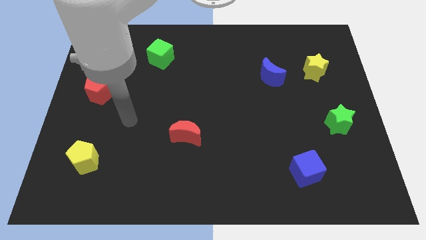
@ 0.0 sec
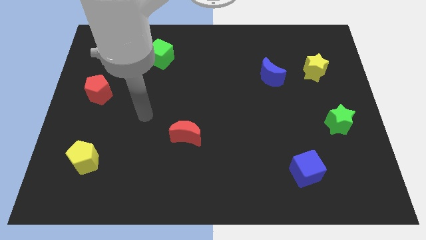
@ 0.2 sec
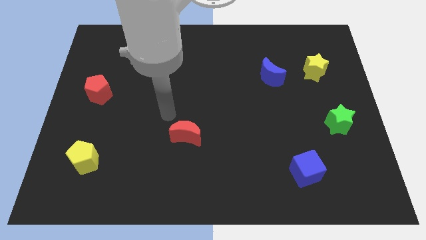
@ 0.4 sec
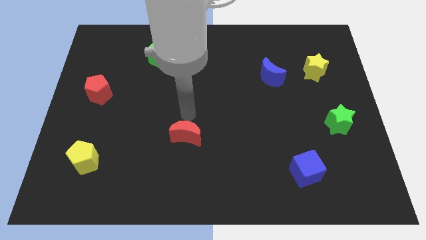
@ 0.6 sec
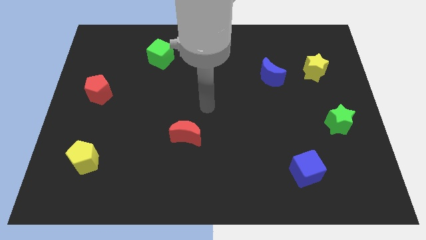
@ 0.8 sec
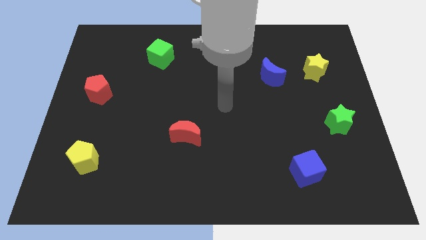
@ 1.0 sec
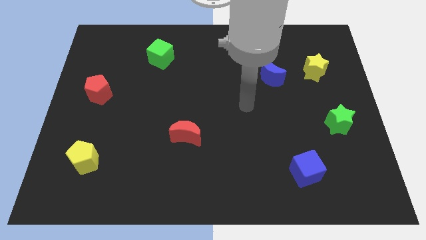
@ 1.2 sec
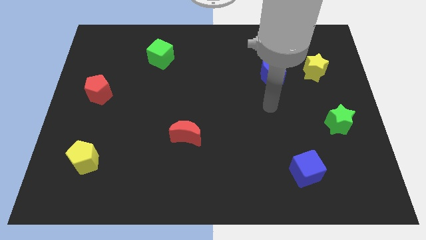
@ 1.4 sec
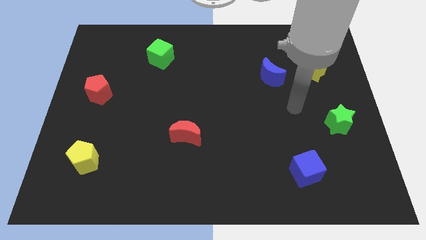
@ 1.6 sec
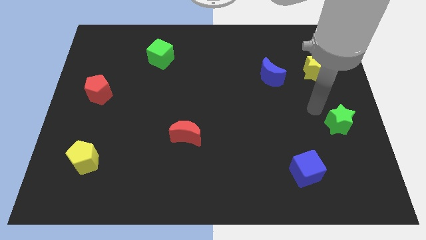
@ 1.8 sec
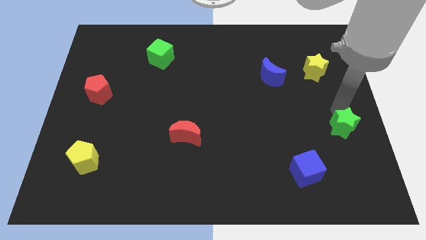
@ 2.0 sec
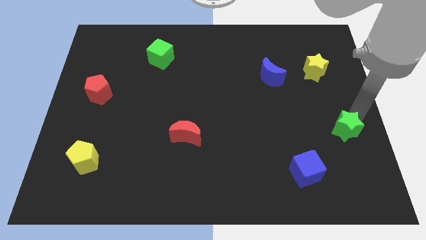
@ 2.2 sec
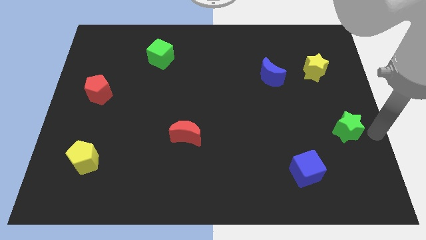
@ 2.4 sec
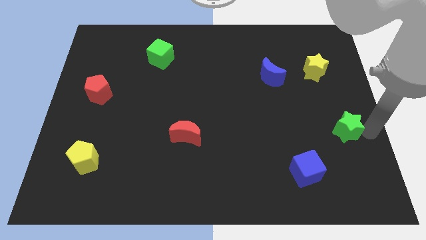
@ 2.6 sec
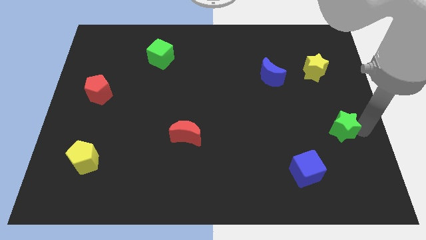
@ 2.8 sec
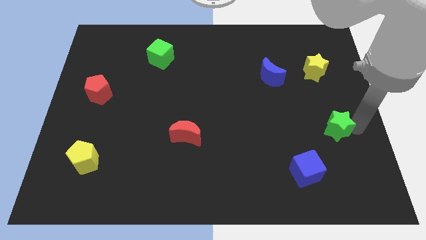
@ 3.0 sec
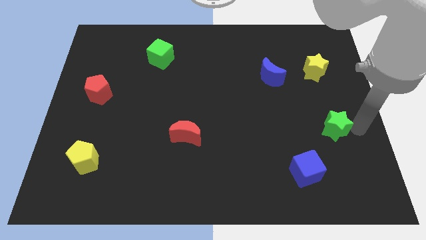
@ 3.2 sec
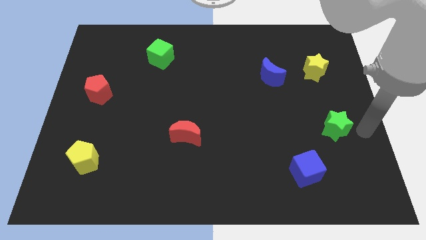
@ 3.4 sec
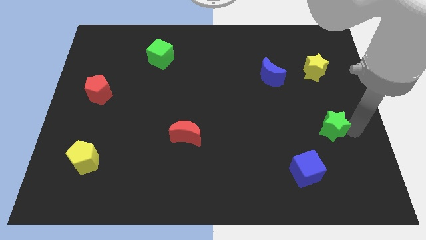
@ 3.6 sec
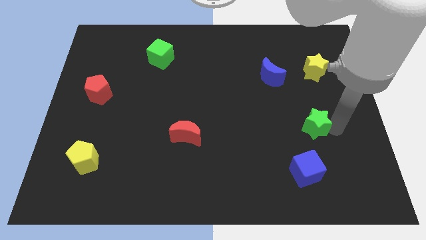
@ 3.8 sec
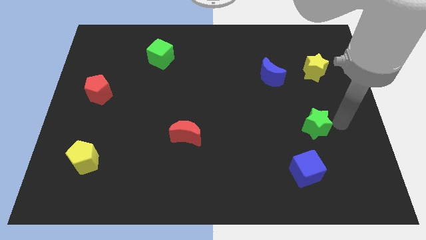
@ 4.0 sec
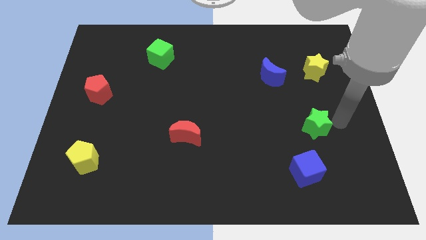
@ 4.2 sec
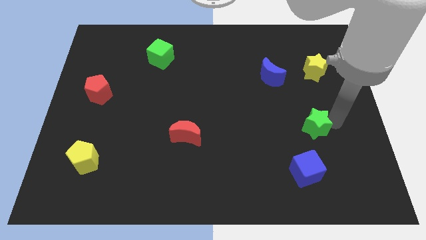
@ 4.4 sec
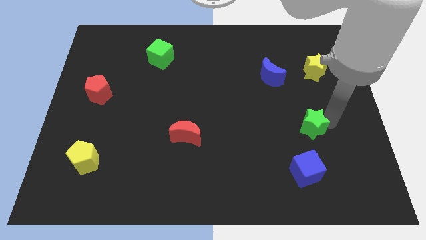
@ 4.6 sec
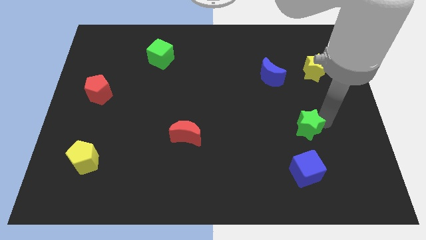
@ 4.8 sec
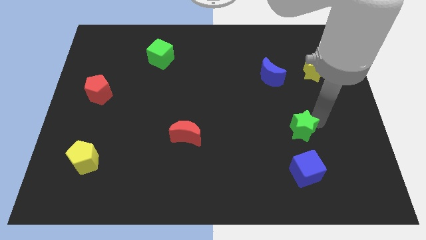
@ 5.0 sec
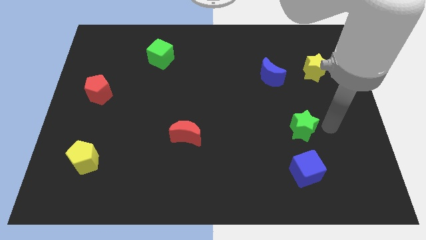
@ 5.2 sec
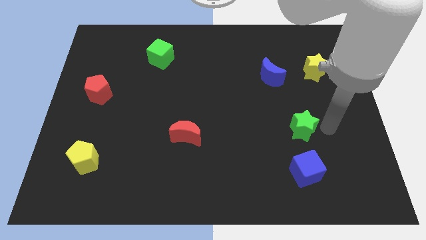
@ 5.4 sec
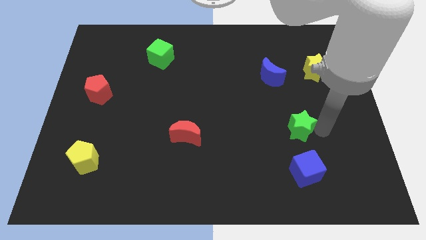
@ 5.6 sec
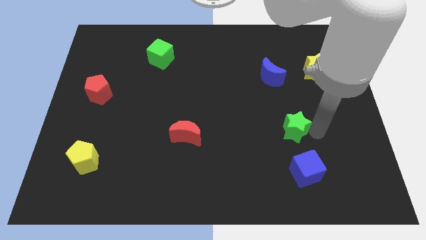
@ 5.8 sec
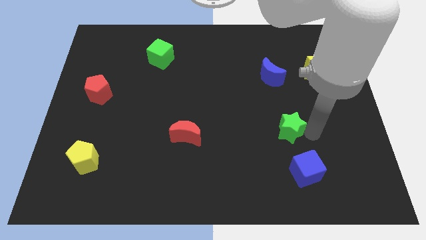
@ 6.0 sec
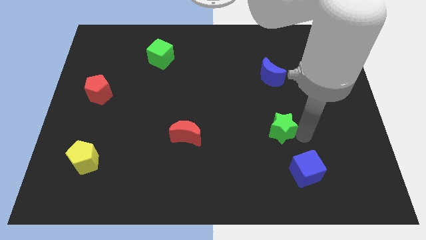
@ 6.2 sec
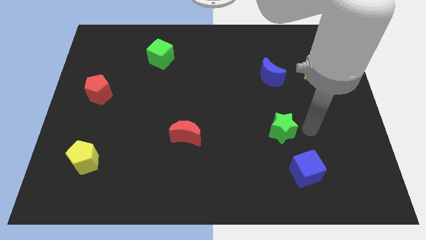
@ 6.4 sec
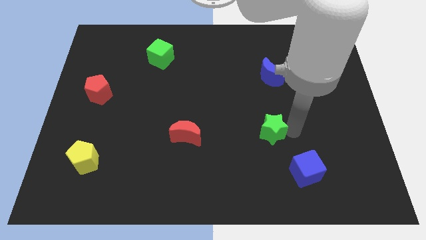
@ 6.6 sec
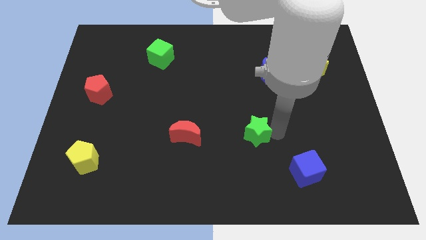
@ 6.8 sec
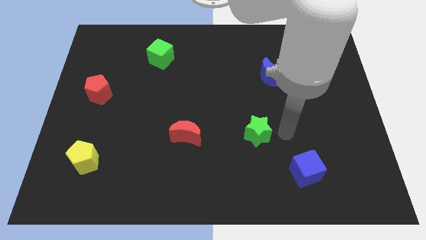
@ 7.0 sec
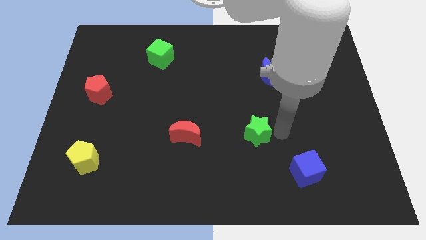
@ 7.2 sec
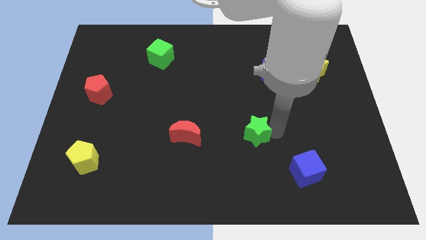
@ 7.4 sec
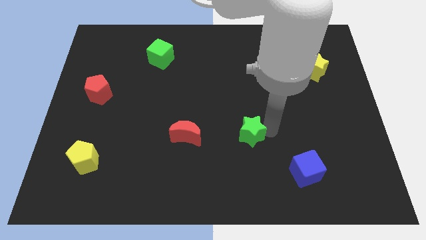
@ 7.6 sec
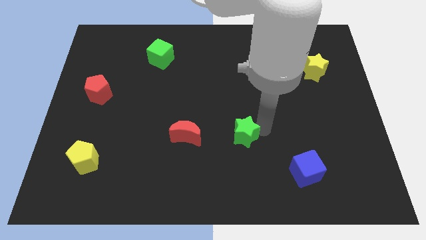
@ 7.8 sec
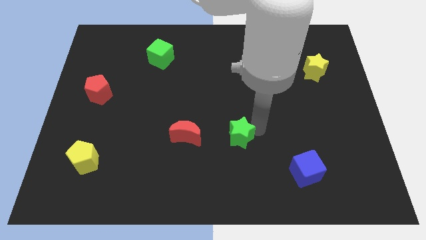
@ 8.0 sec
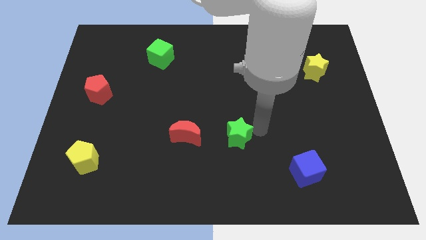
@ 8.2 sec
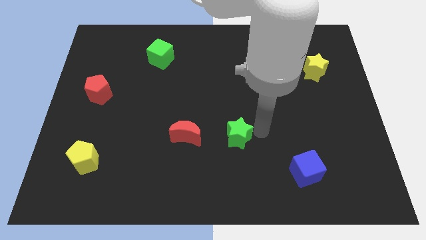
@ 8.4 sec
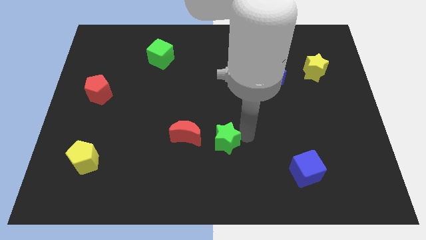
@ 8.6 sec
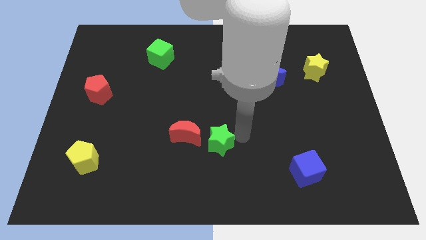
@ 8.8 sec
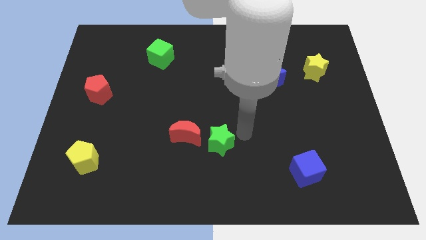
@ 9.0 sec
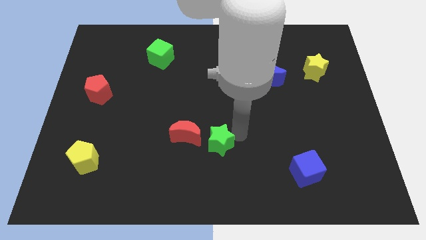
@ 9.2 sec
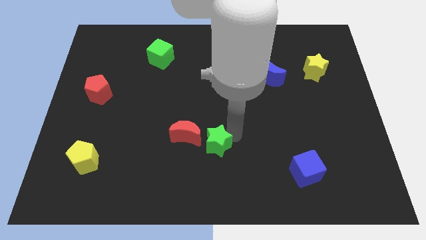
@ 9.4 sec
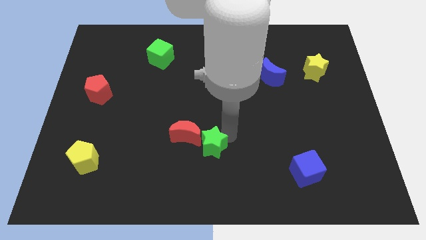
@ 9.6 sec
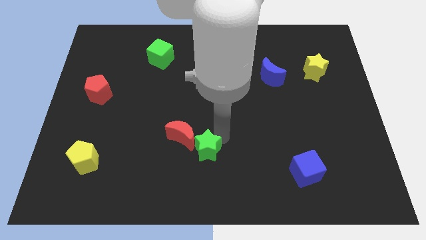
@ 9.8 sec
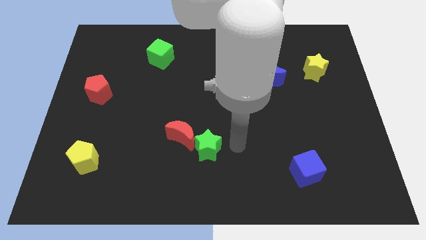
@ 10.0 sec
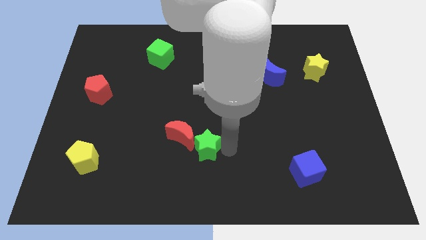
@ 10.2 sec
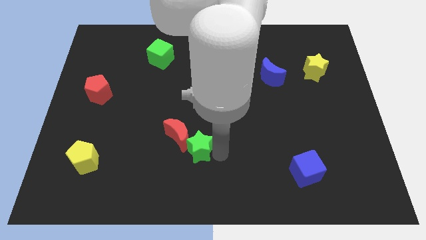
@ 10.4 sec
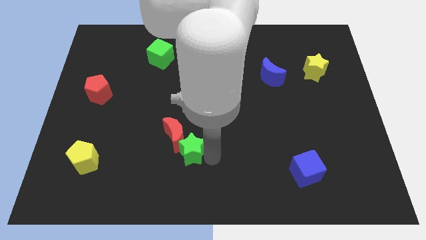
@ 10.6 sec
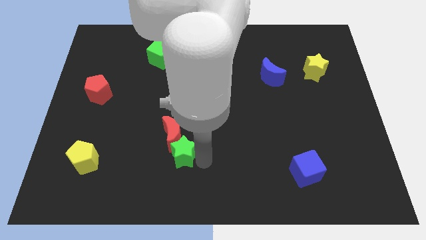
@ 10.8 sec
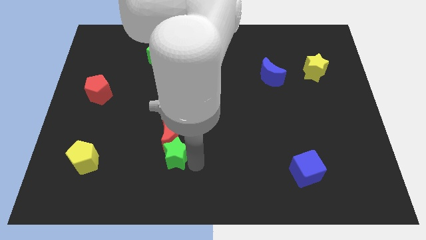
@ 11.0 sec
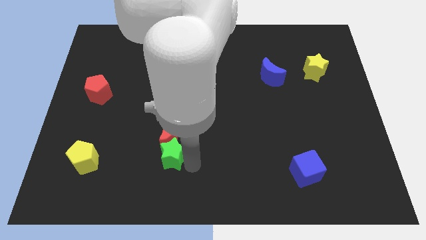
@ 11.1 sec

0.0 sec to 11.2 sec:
slide the green star to the bottom left of the red moon

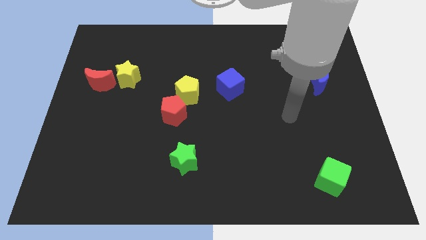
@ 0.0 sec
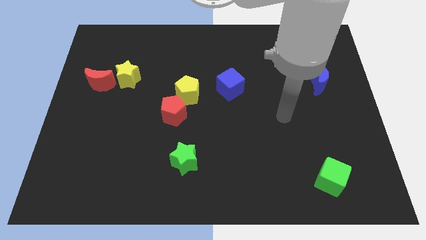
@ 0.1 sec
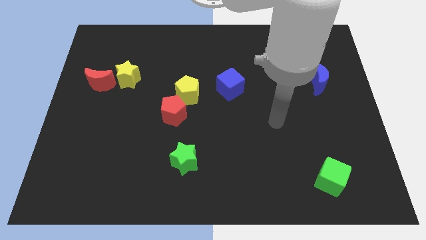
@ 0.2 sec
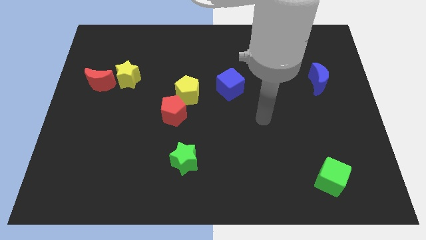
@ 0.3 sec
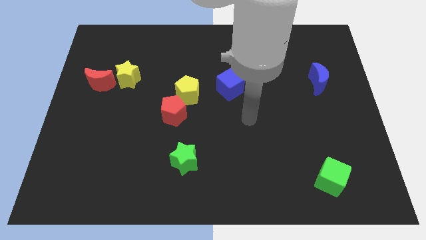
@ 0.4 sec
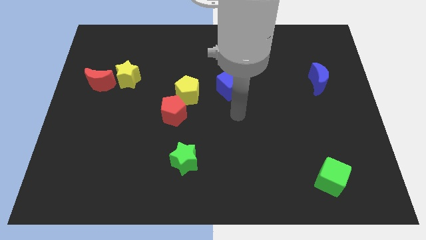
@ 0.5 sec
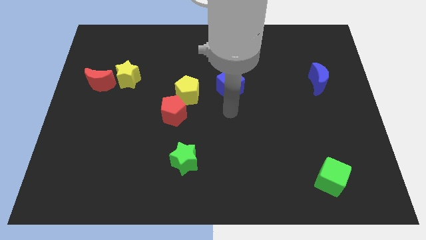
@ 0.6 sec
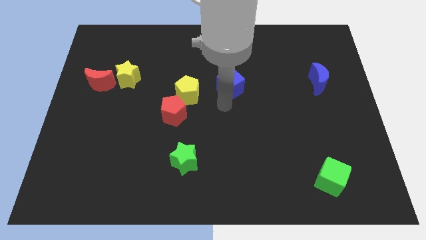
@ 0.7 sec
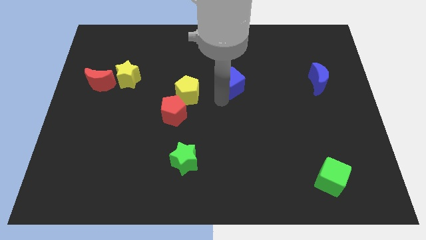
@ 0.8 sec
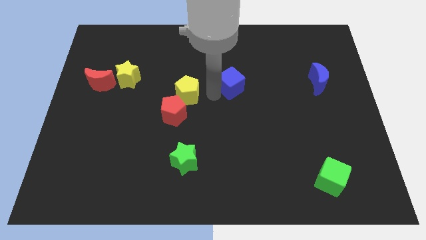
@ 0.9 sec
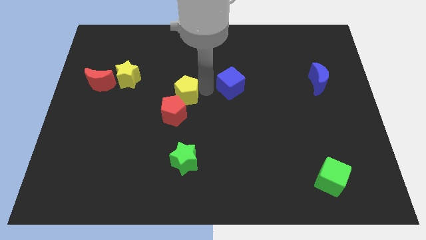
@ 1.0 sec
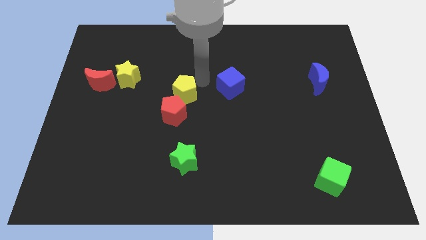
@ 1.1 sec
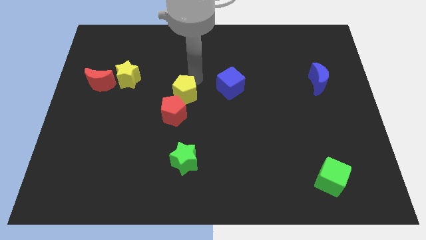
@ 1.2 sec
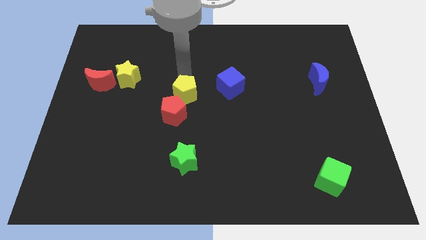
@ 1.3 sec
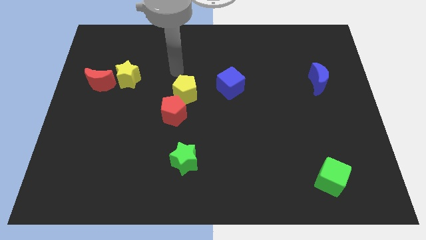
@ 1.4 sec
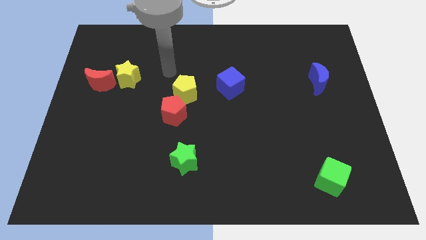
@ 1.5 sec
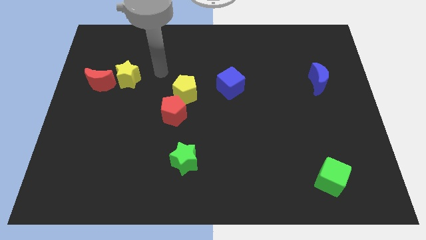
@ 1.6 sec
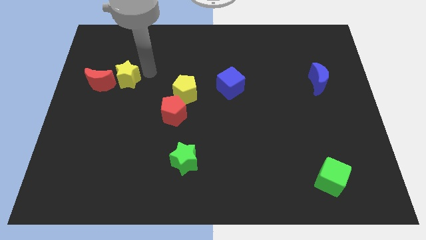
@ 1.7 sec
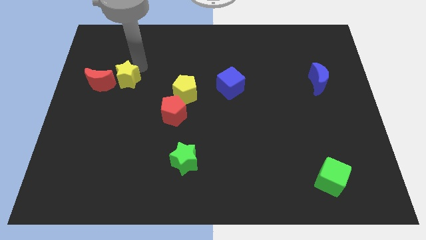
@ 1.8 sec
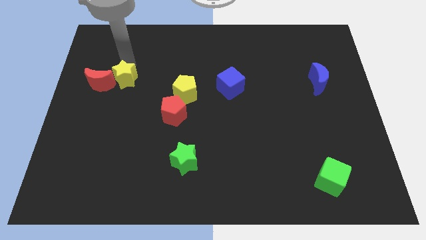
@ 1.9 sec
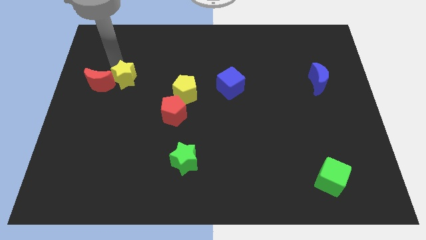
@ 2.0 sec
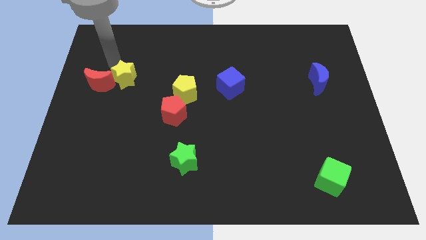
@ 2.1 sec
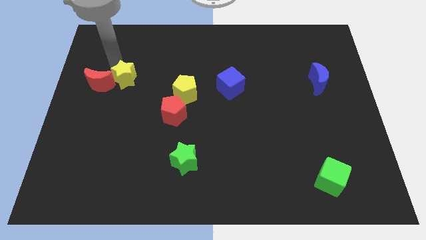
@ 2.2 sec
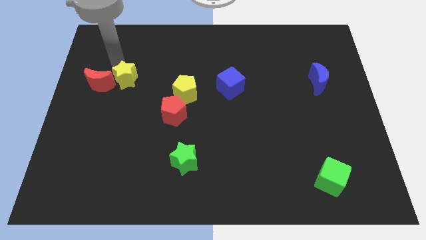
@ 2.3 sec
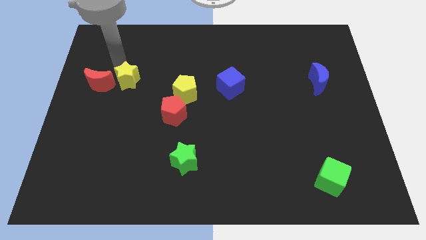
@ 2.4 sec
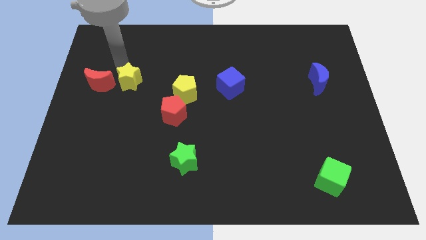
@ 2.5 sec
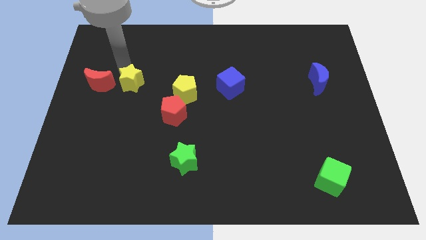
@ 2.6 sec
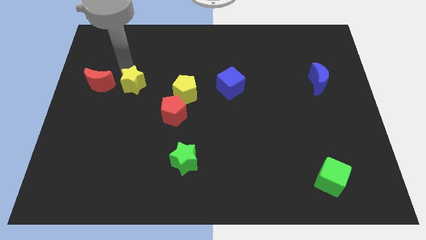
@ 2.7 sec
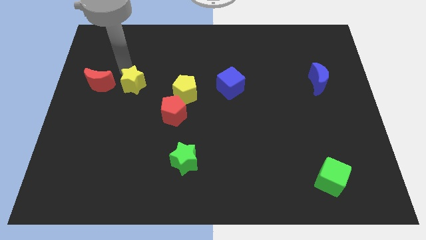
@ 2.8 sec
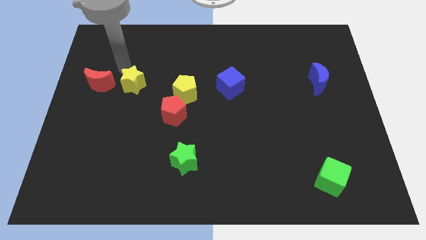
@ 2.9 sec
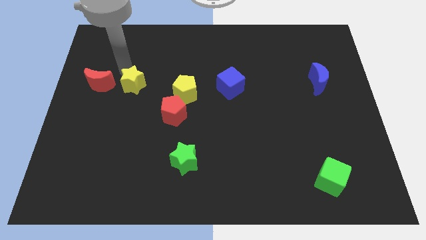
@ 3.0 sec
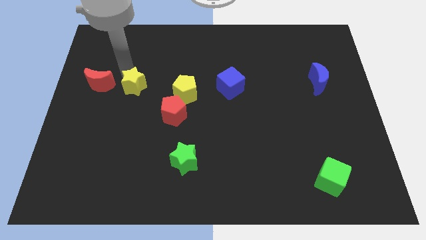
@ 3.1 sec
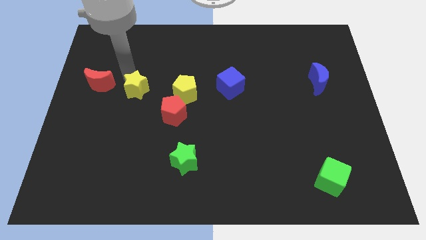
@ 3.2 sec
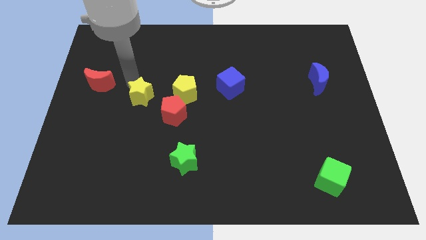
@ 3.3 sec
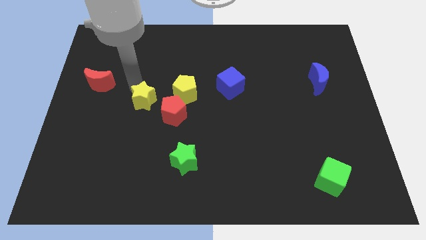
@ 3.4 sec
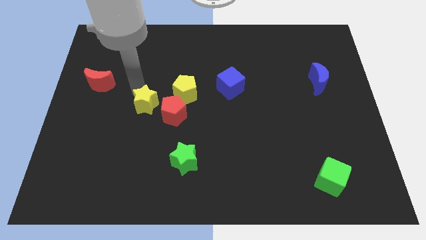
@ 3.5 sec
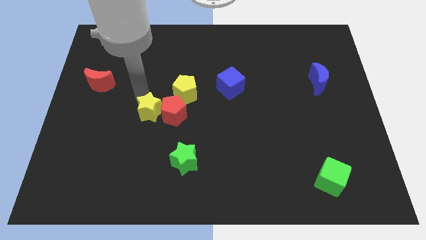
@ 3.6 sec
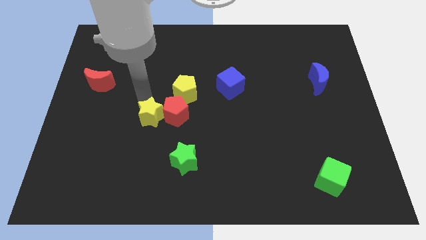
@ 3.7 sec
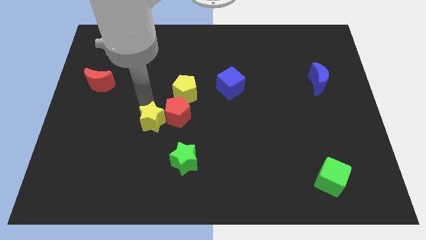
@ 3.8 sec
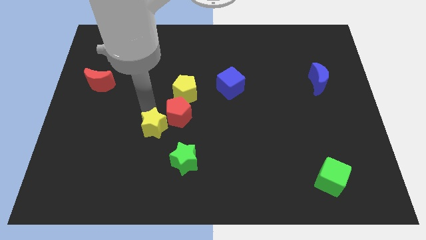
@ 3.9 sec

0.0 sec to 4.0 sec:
put the yellow star to the top left of the green star
